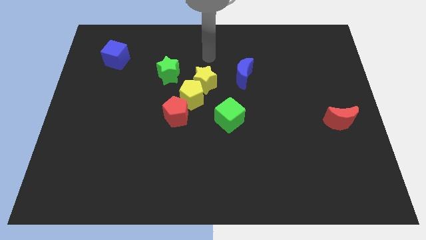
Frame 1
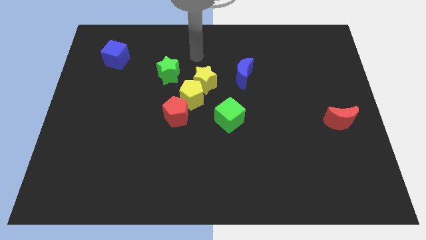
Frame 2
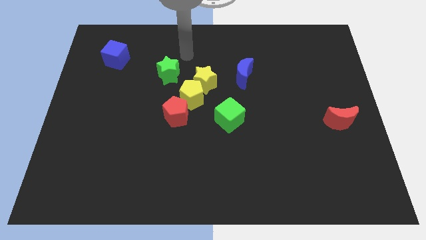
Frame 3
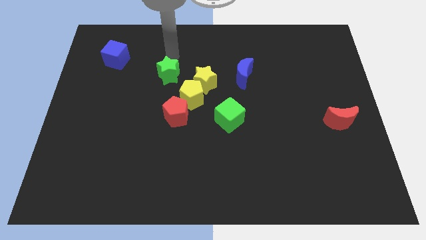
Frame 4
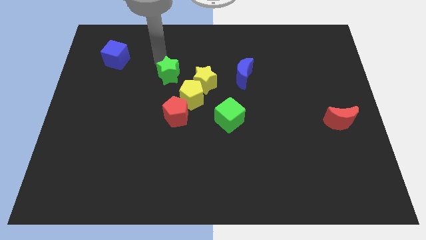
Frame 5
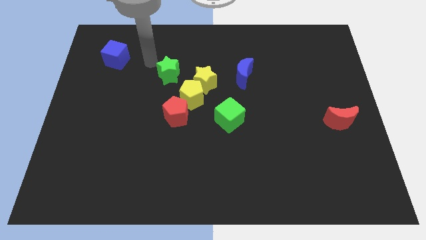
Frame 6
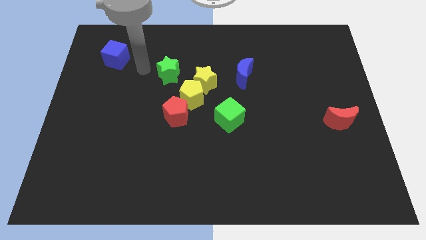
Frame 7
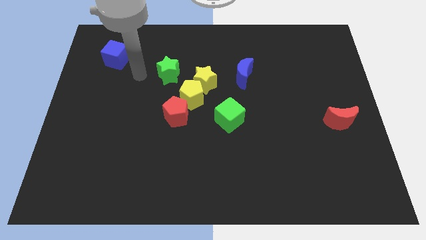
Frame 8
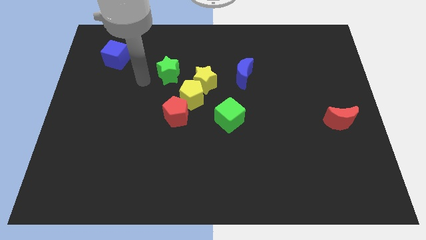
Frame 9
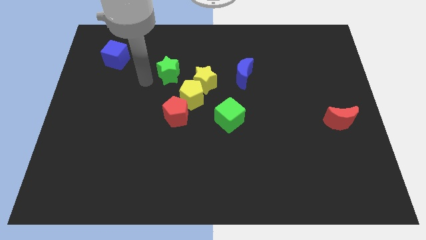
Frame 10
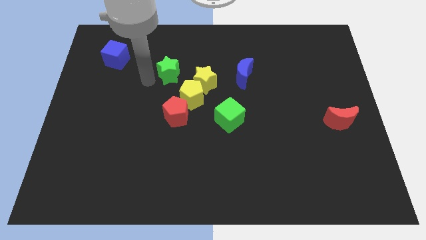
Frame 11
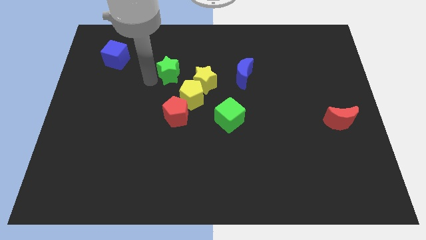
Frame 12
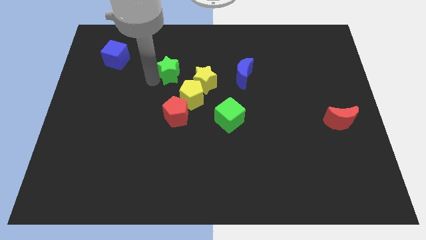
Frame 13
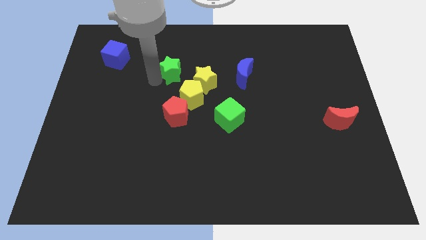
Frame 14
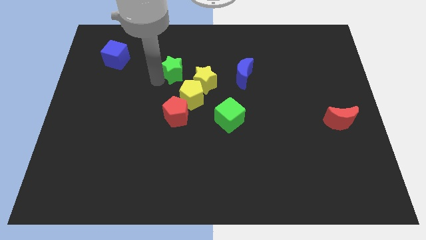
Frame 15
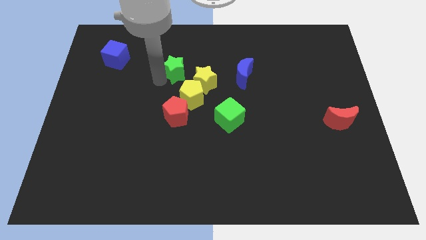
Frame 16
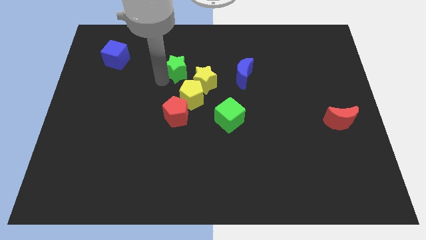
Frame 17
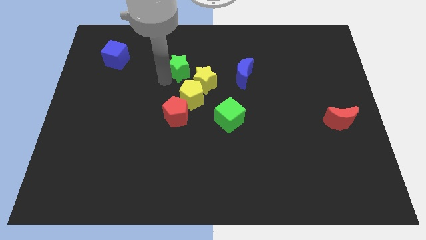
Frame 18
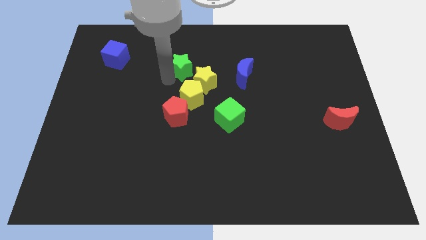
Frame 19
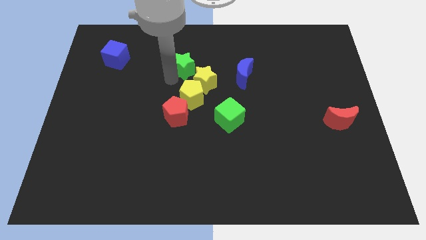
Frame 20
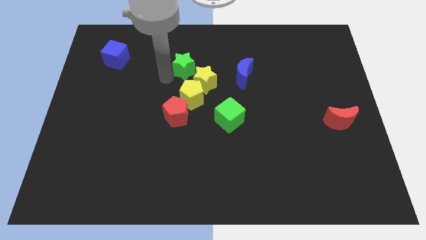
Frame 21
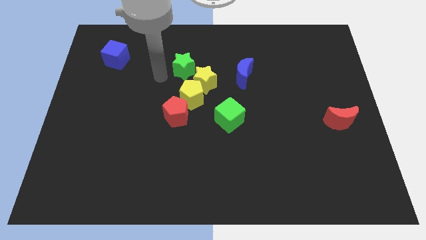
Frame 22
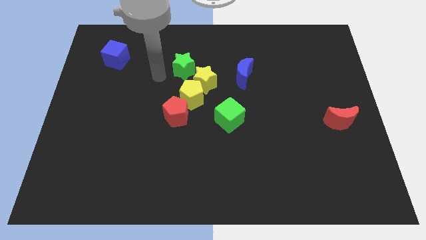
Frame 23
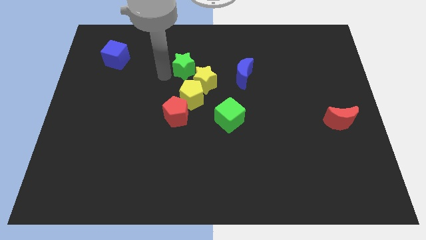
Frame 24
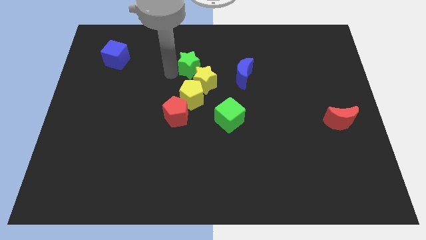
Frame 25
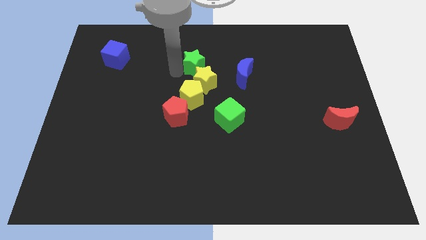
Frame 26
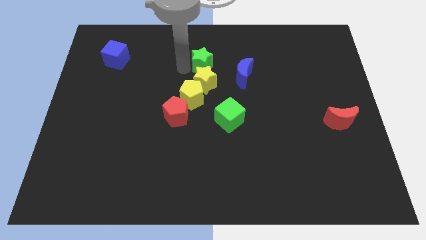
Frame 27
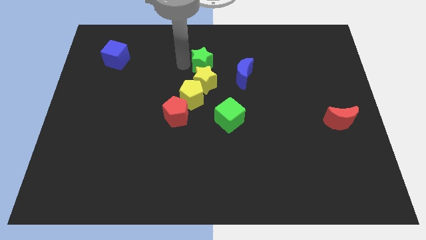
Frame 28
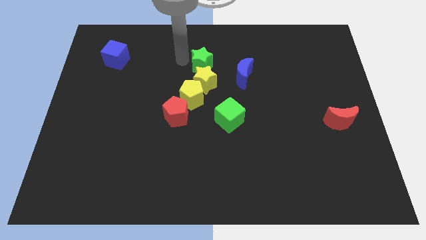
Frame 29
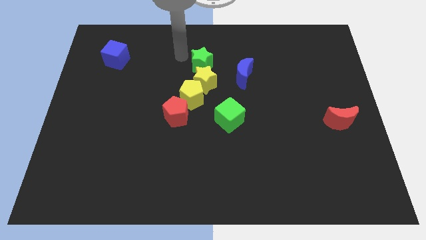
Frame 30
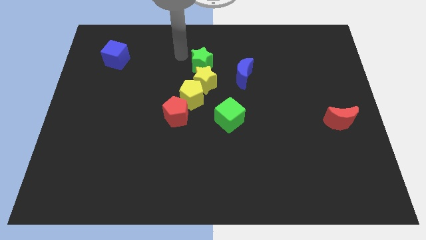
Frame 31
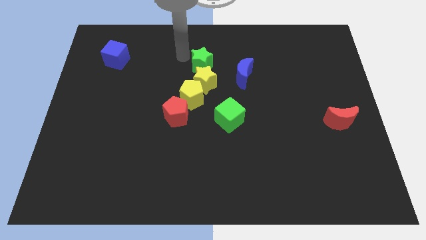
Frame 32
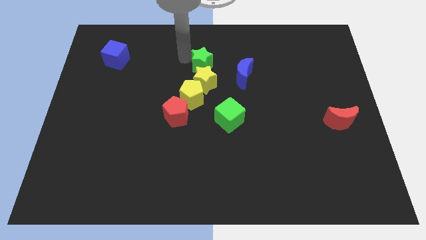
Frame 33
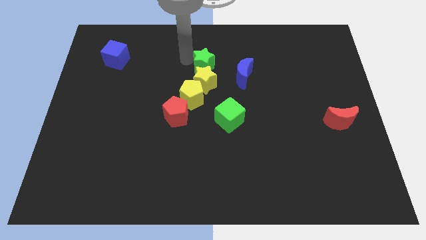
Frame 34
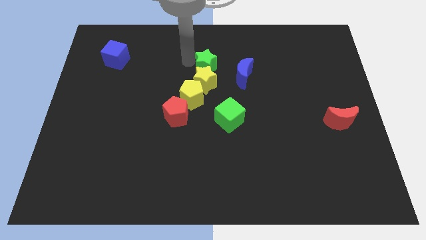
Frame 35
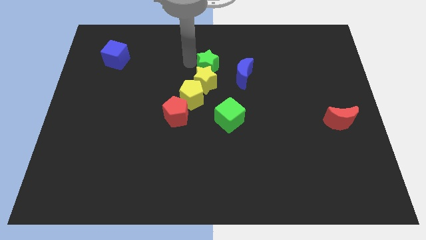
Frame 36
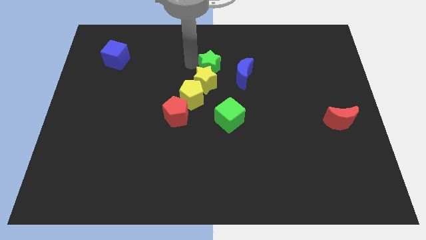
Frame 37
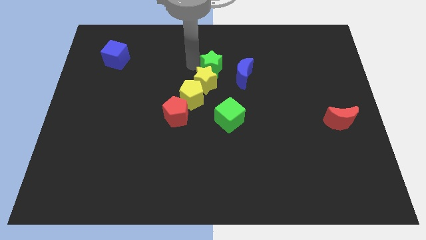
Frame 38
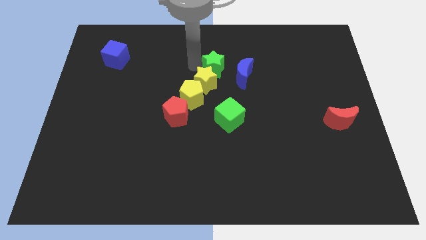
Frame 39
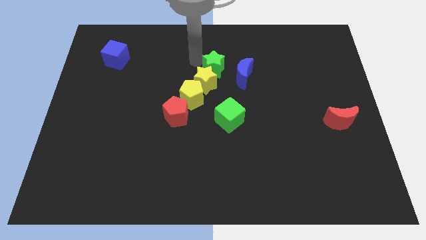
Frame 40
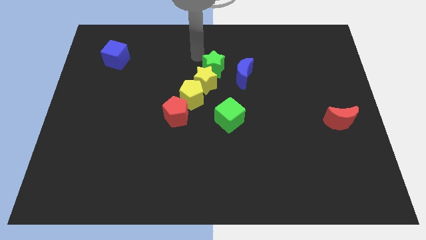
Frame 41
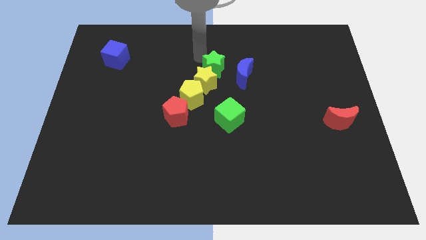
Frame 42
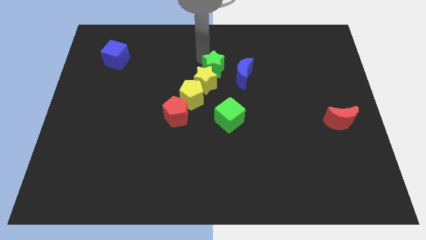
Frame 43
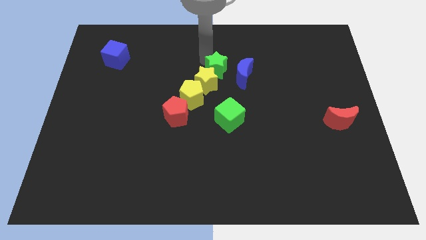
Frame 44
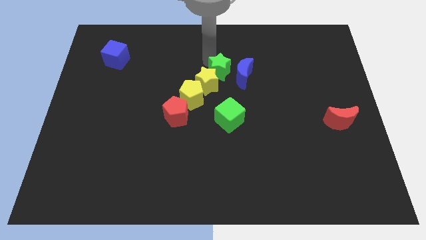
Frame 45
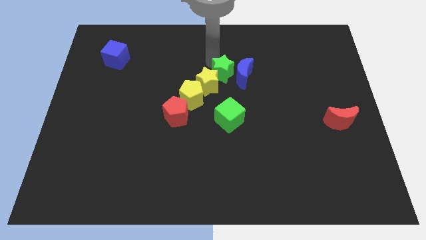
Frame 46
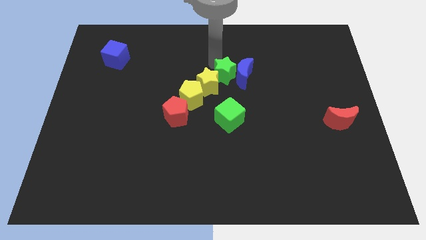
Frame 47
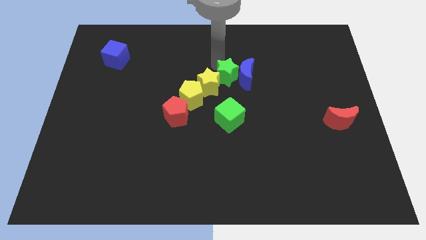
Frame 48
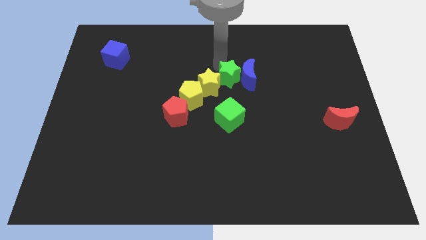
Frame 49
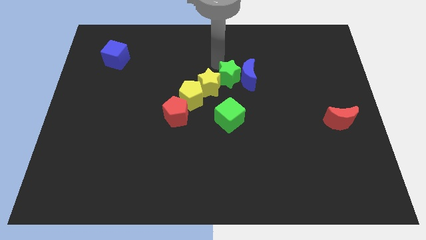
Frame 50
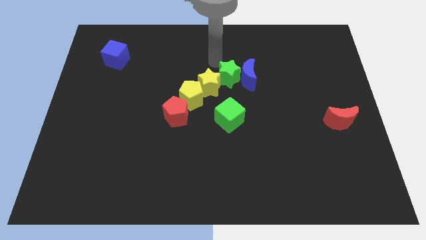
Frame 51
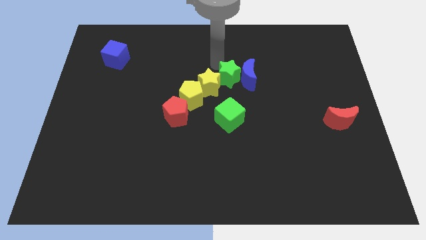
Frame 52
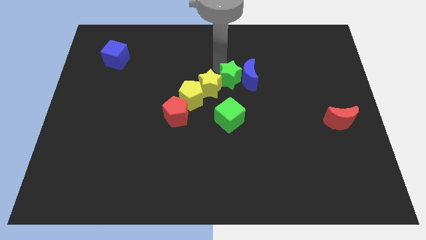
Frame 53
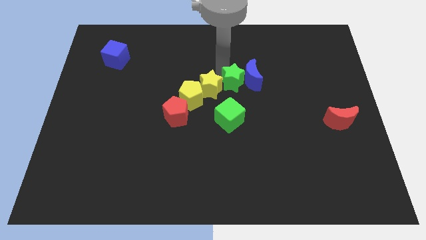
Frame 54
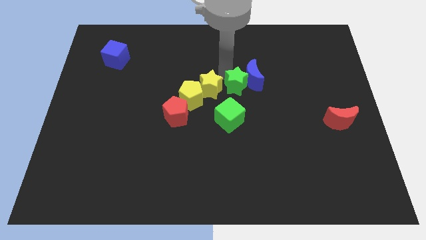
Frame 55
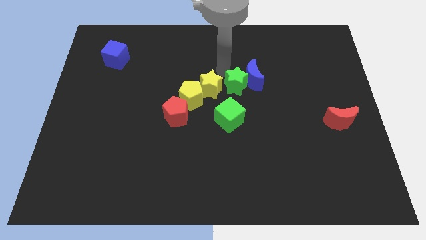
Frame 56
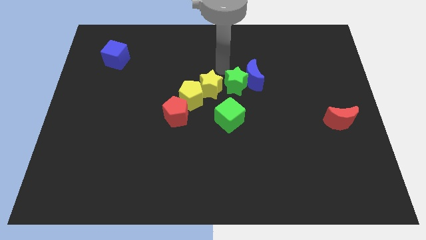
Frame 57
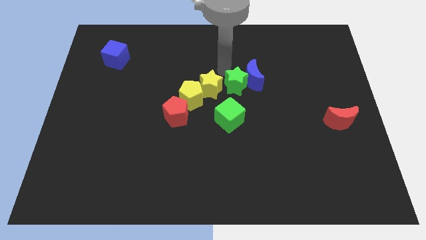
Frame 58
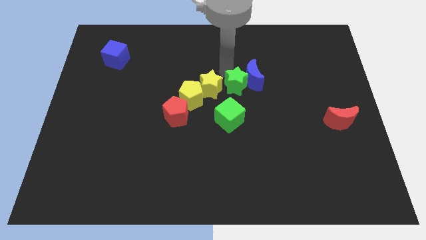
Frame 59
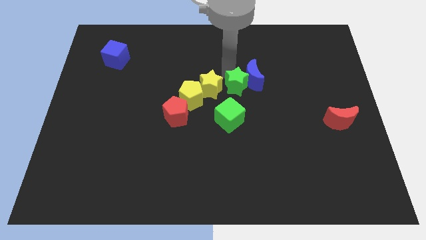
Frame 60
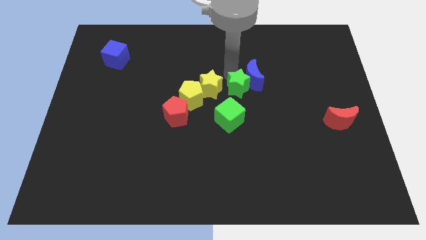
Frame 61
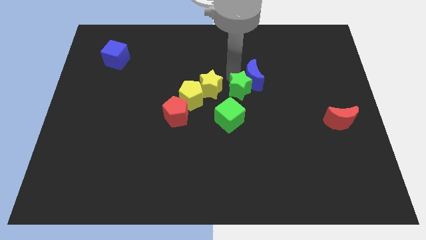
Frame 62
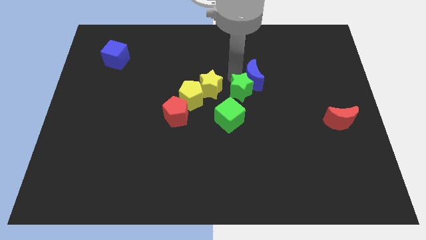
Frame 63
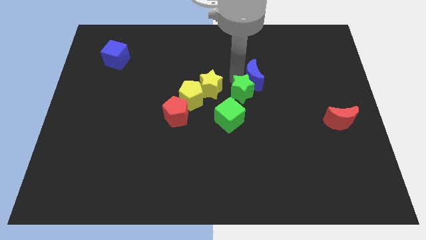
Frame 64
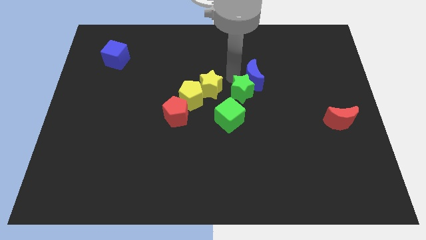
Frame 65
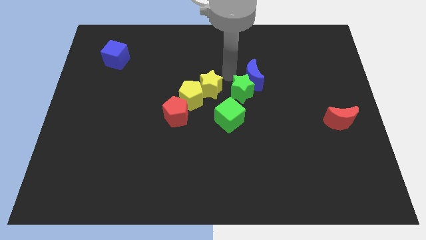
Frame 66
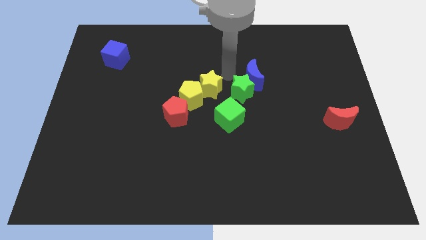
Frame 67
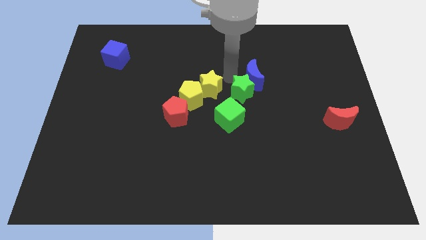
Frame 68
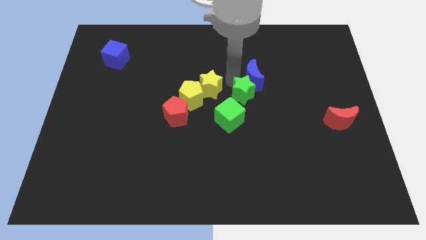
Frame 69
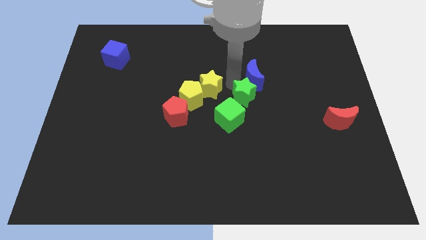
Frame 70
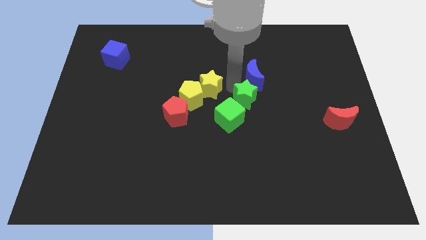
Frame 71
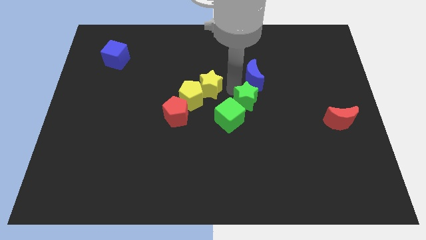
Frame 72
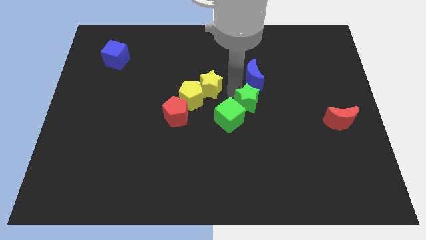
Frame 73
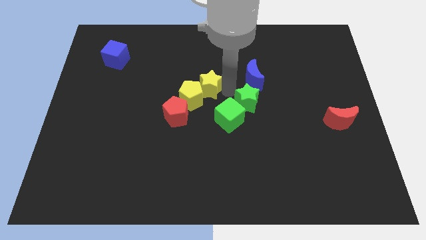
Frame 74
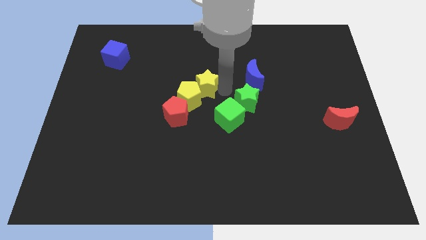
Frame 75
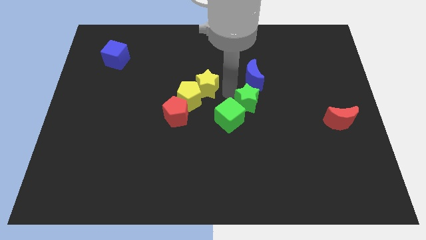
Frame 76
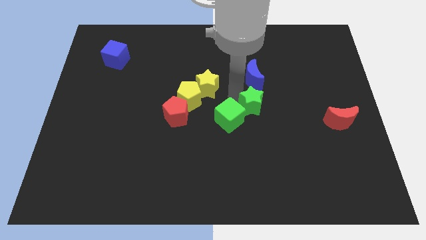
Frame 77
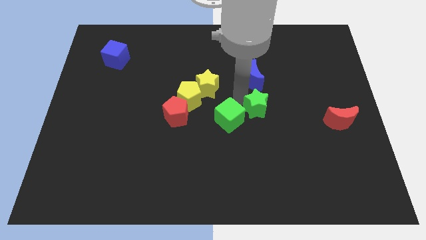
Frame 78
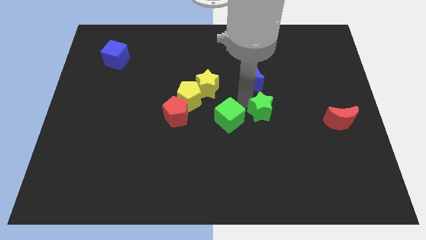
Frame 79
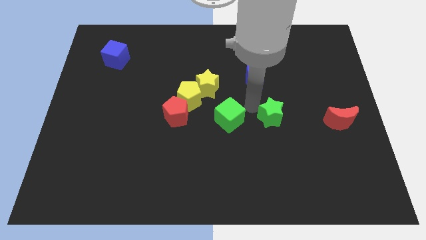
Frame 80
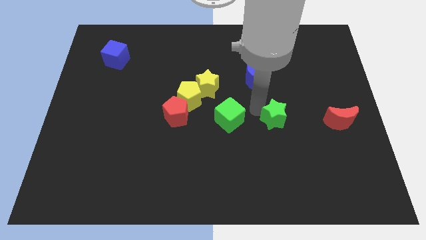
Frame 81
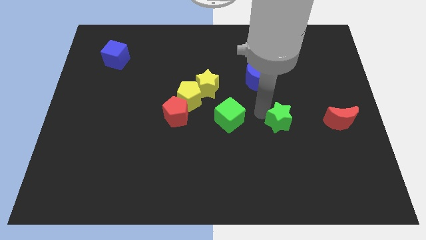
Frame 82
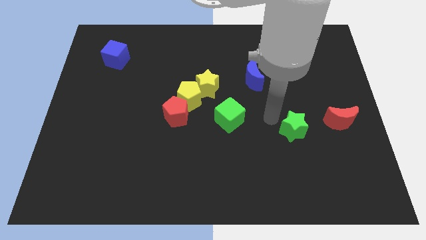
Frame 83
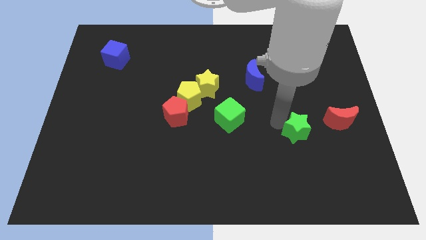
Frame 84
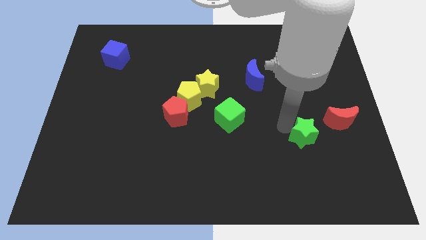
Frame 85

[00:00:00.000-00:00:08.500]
push the green star diagonally down and to the left of the red moon
